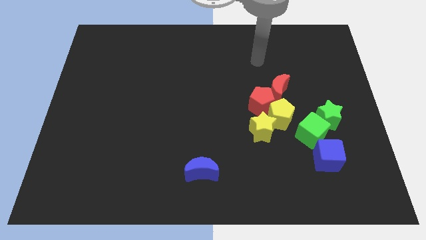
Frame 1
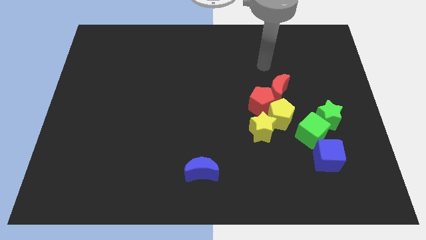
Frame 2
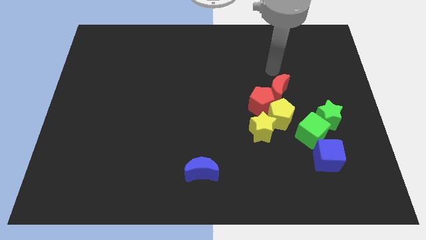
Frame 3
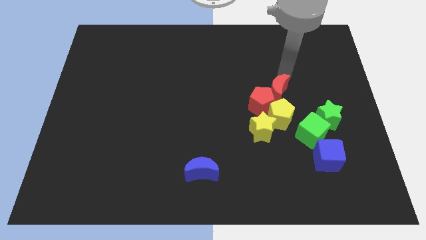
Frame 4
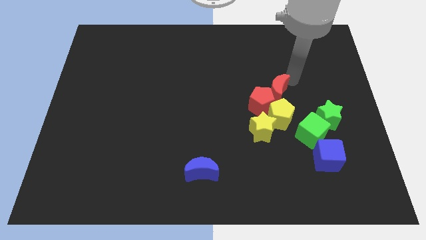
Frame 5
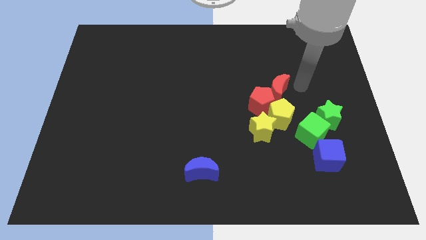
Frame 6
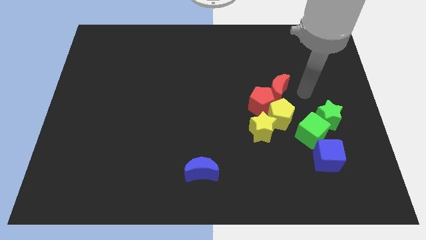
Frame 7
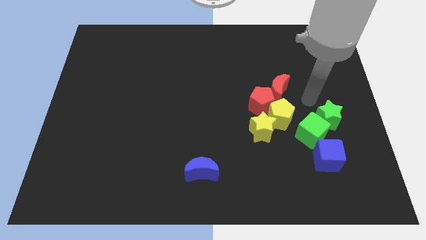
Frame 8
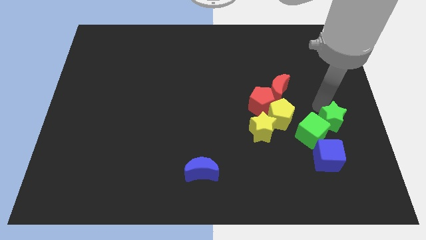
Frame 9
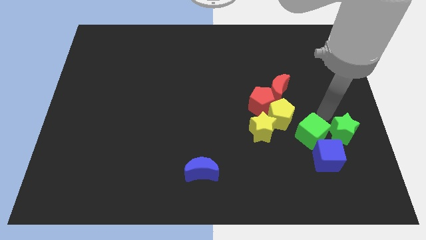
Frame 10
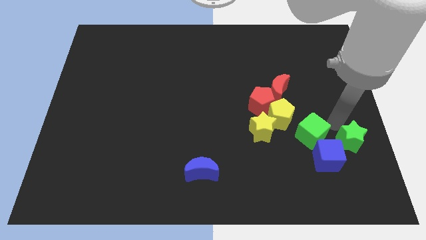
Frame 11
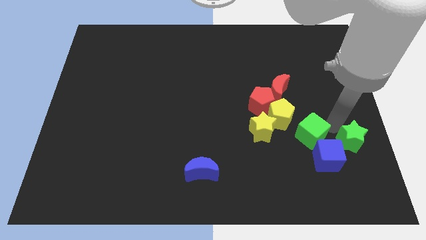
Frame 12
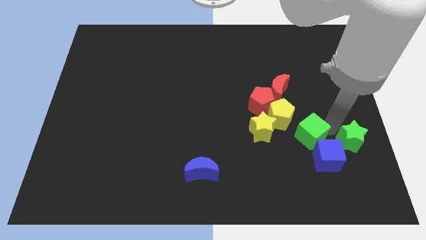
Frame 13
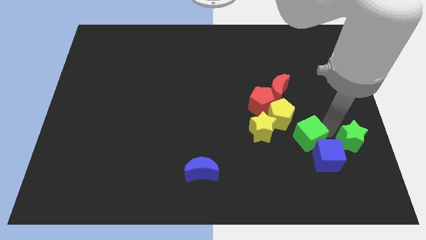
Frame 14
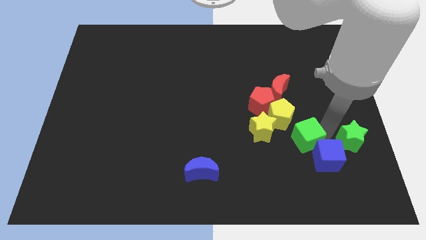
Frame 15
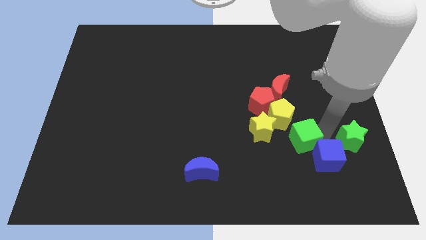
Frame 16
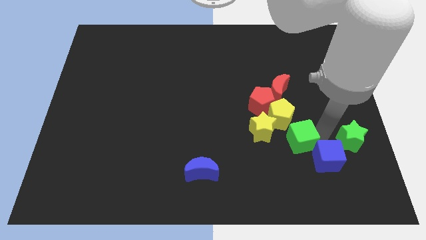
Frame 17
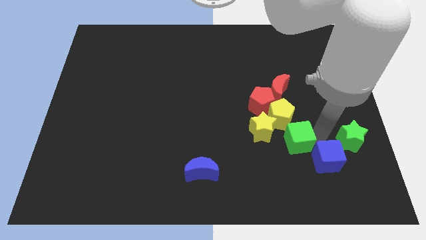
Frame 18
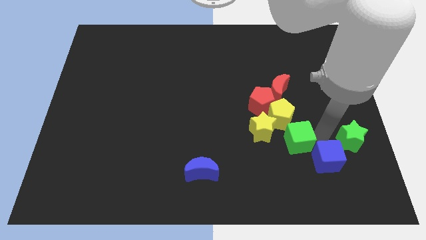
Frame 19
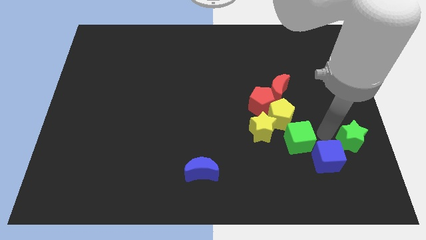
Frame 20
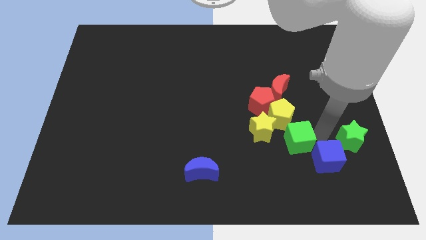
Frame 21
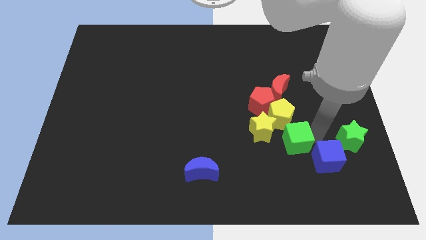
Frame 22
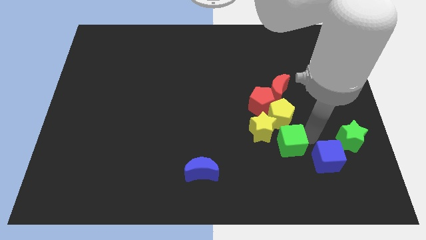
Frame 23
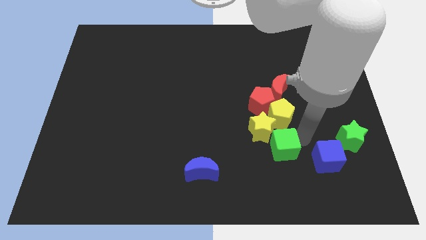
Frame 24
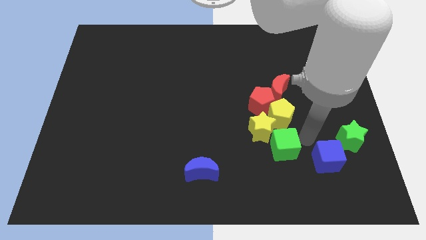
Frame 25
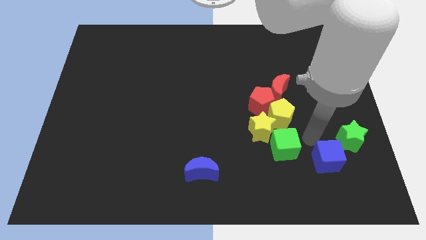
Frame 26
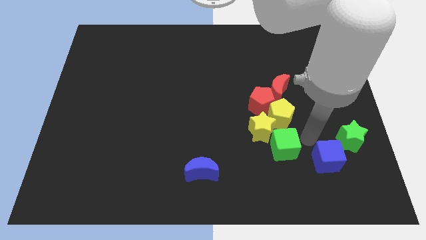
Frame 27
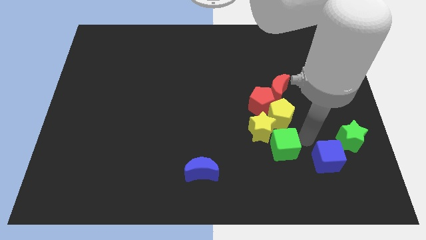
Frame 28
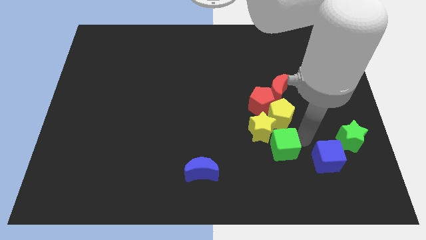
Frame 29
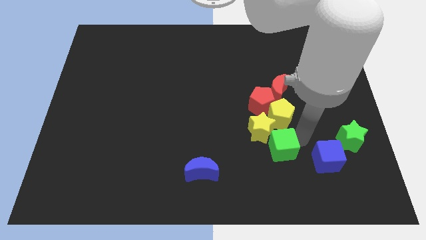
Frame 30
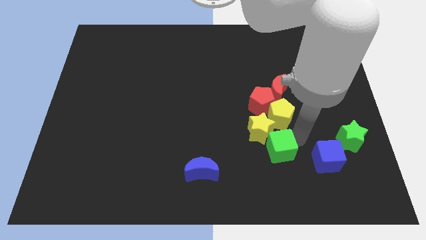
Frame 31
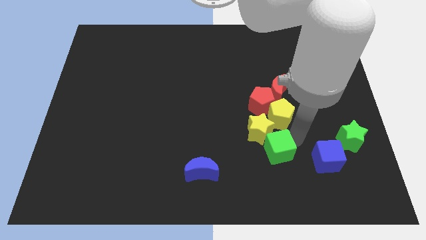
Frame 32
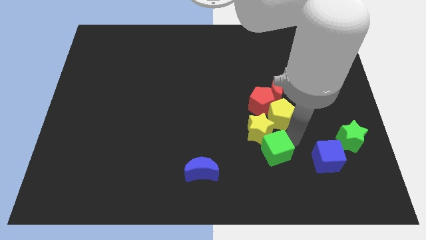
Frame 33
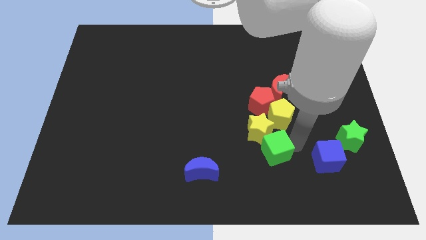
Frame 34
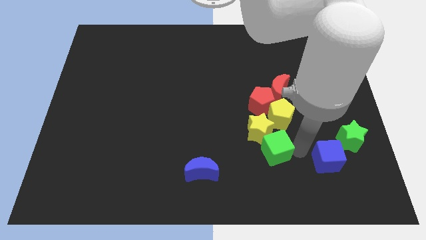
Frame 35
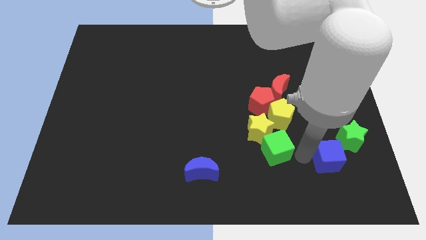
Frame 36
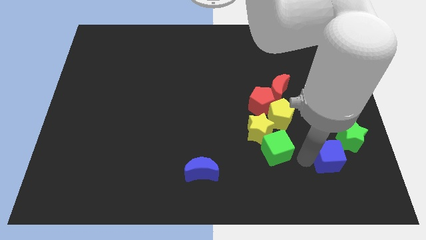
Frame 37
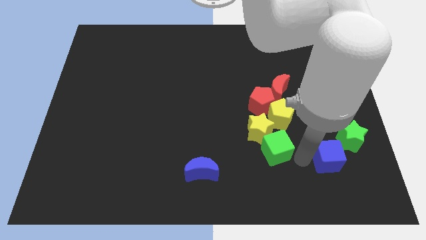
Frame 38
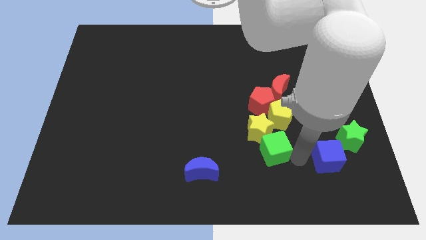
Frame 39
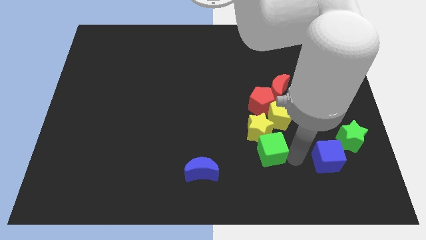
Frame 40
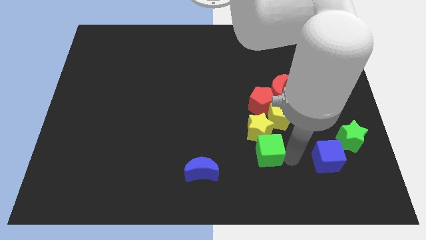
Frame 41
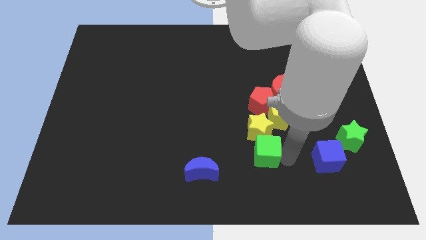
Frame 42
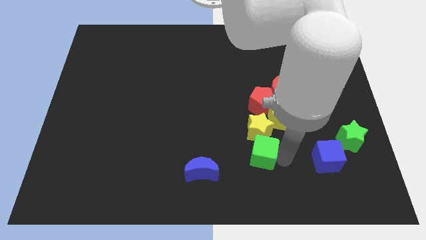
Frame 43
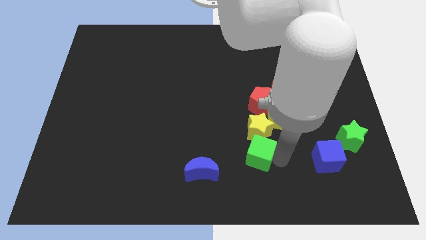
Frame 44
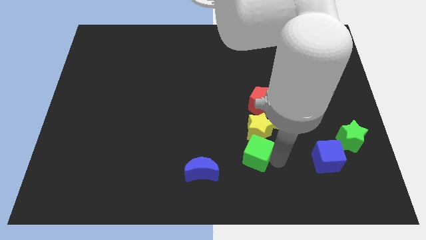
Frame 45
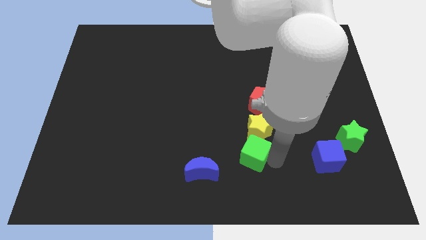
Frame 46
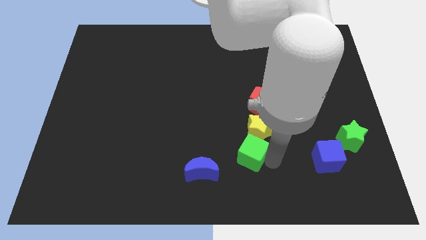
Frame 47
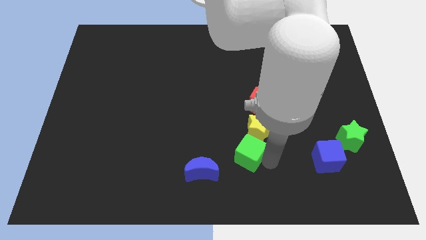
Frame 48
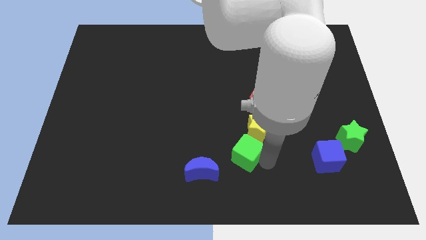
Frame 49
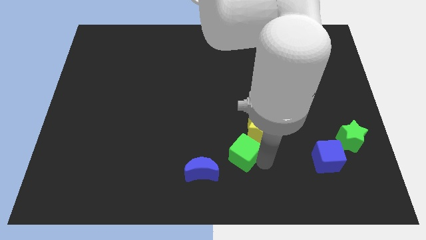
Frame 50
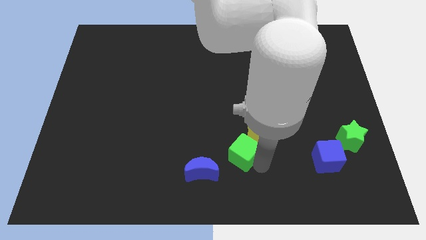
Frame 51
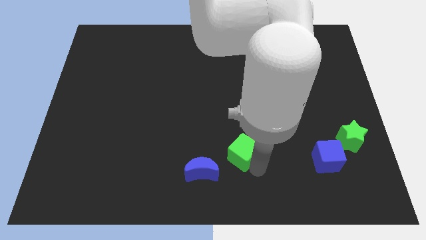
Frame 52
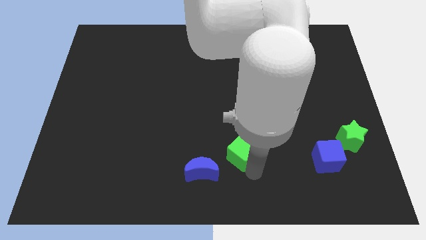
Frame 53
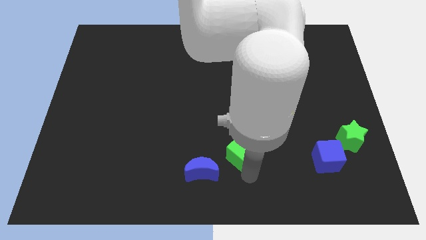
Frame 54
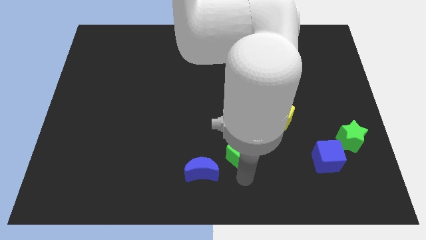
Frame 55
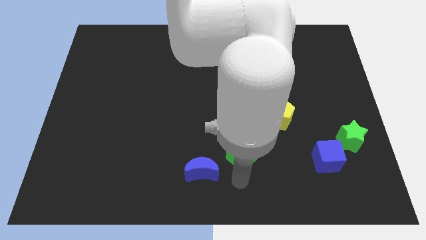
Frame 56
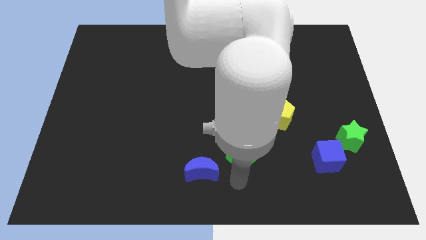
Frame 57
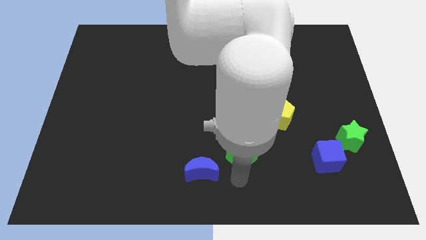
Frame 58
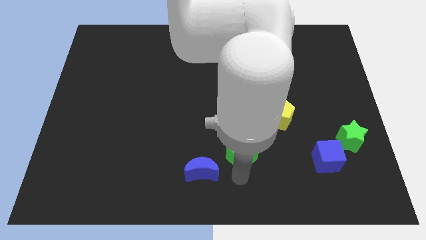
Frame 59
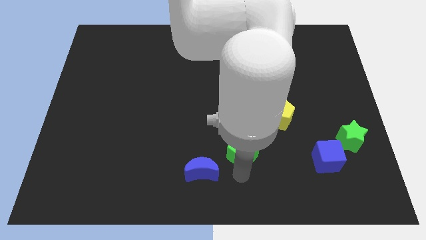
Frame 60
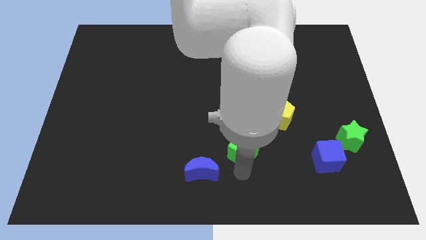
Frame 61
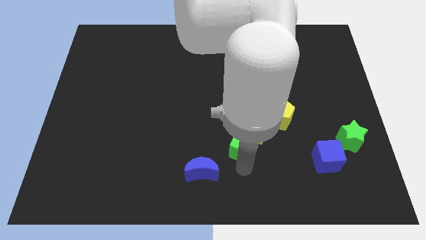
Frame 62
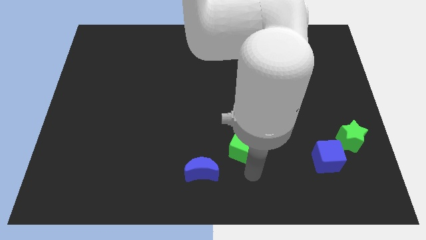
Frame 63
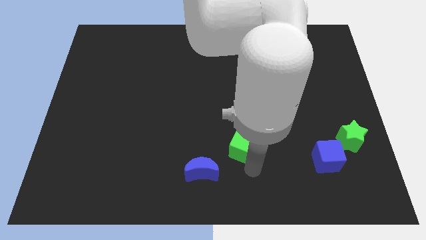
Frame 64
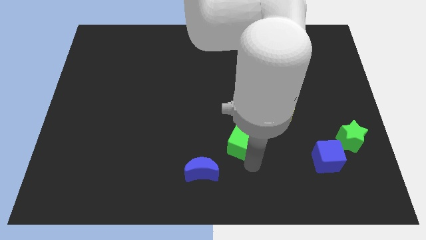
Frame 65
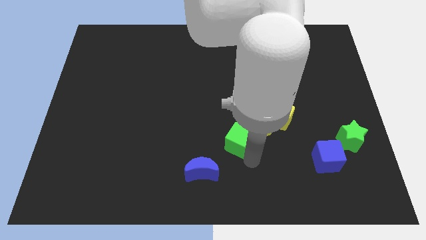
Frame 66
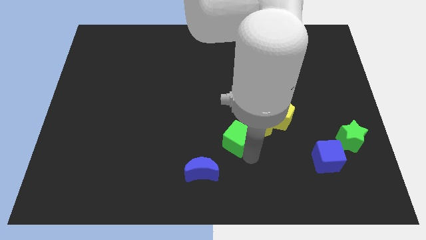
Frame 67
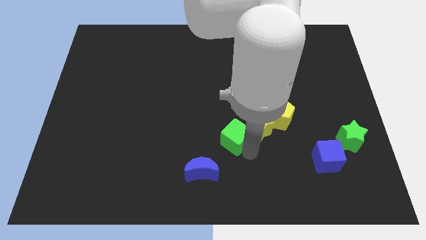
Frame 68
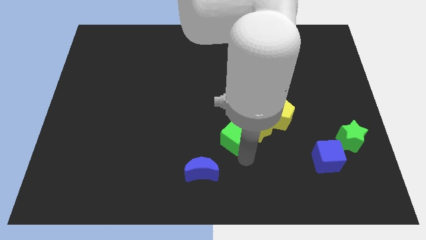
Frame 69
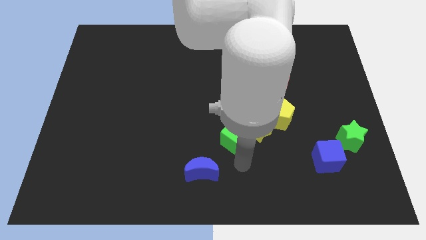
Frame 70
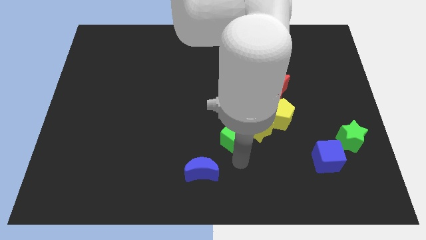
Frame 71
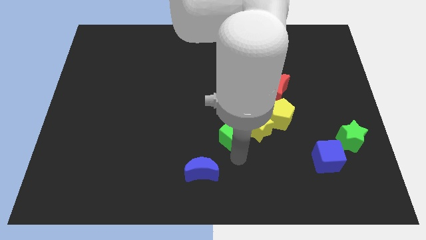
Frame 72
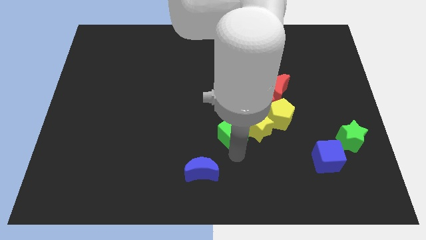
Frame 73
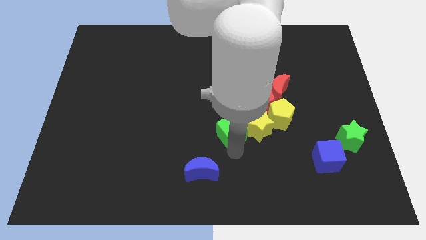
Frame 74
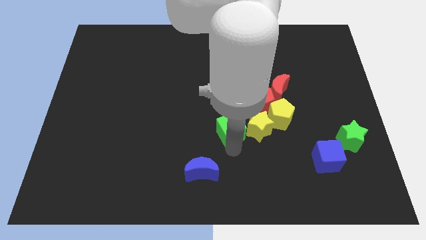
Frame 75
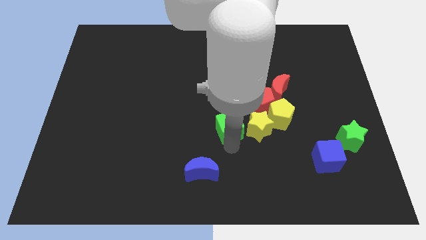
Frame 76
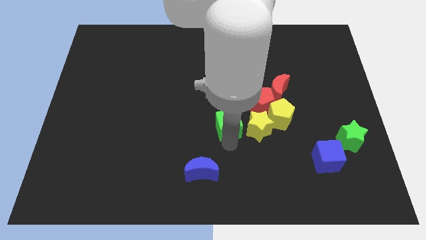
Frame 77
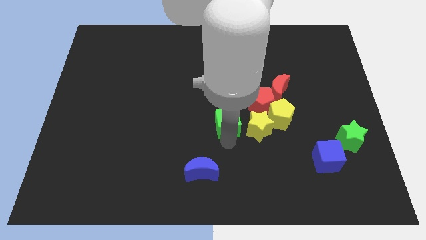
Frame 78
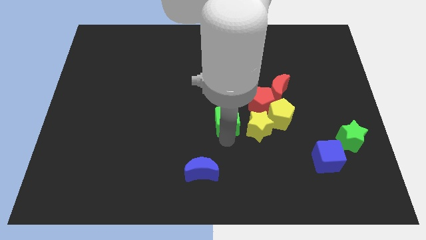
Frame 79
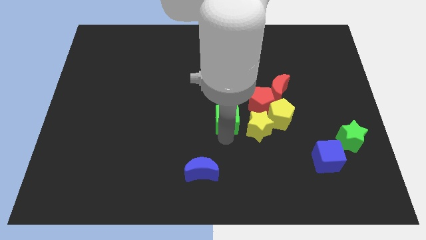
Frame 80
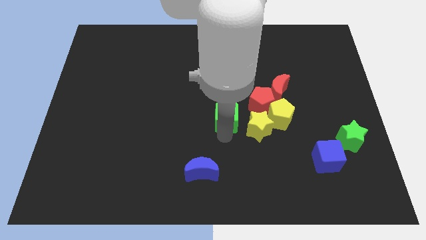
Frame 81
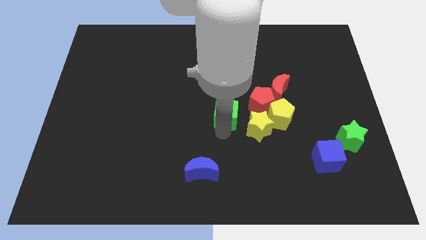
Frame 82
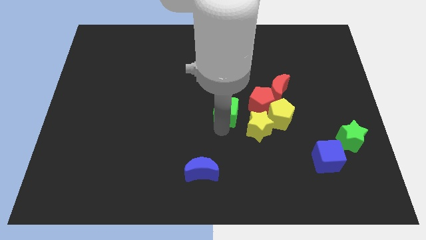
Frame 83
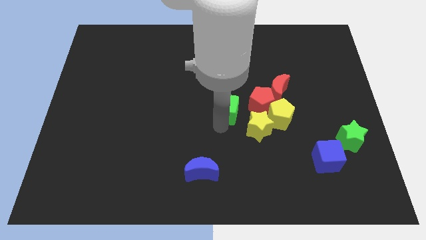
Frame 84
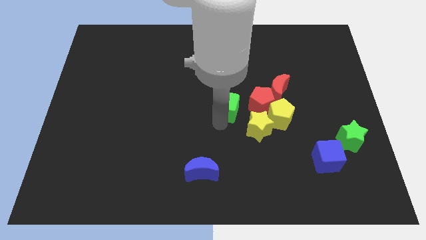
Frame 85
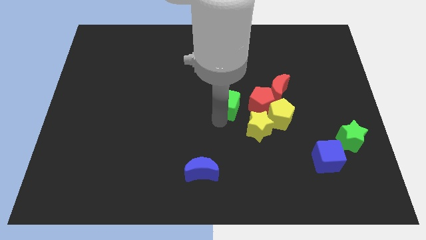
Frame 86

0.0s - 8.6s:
push the green cube to the left side of the red moon
